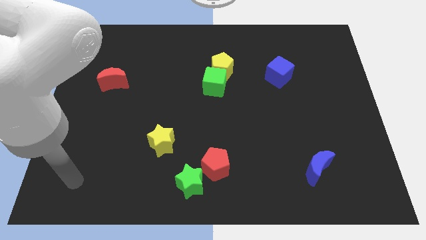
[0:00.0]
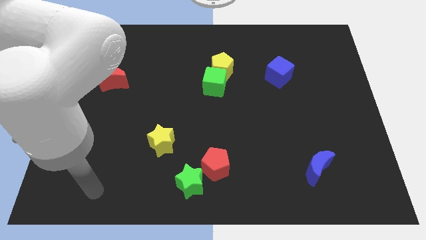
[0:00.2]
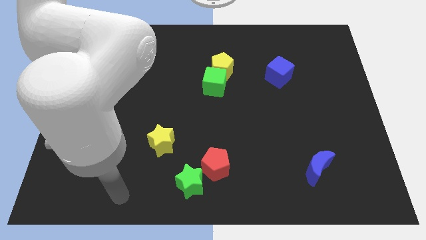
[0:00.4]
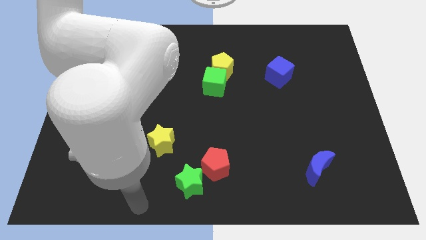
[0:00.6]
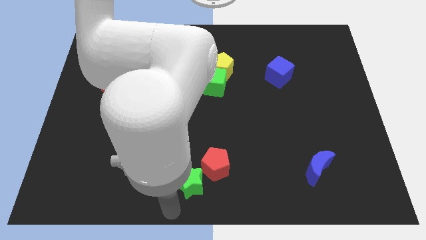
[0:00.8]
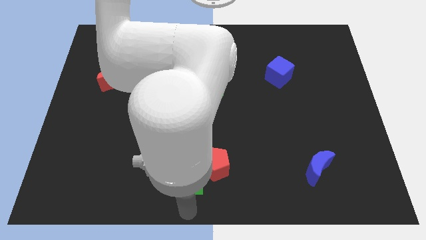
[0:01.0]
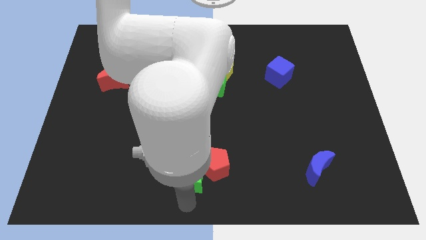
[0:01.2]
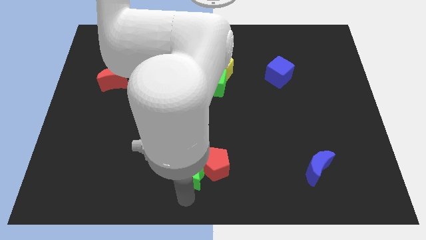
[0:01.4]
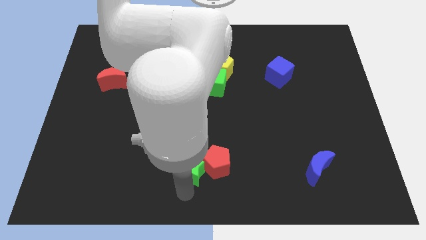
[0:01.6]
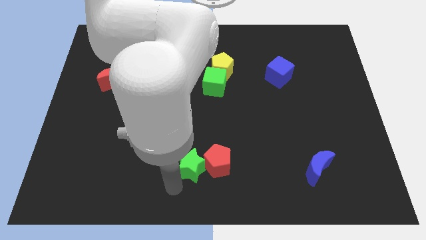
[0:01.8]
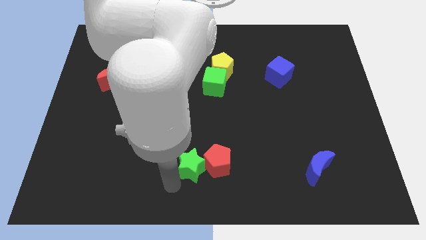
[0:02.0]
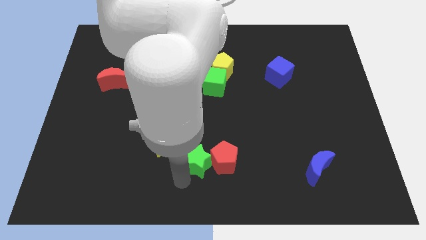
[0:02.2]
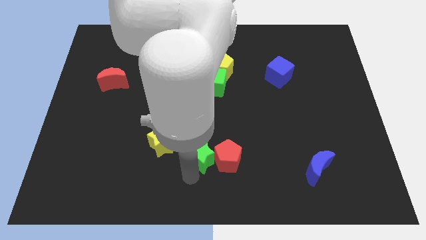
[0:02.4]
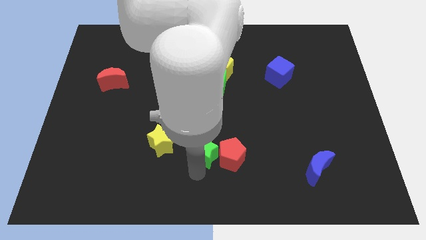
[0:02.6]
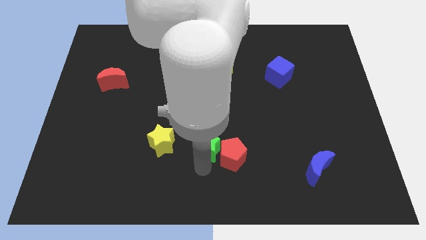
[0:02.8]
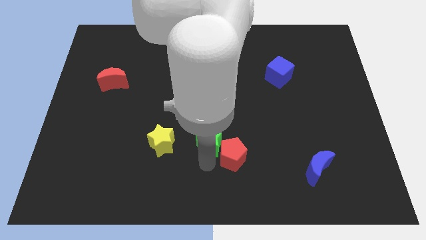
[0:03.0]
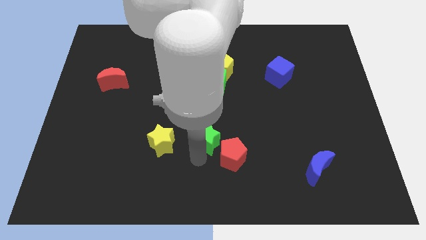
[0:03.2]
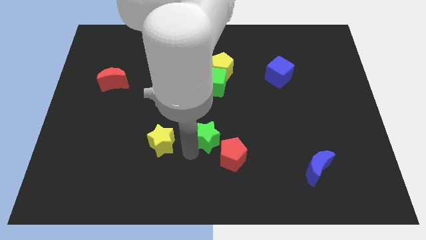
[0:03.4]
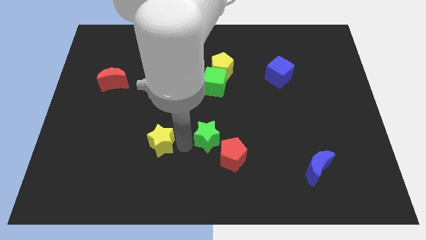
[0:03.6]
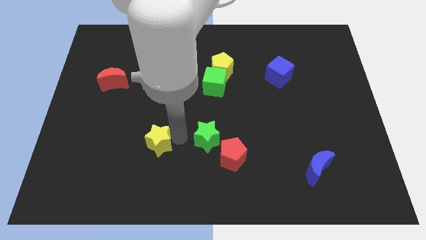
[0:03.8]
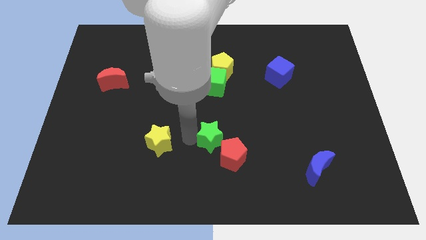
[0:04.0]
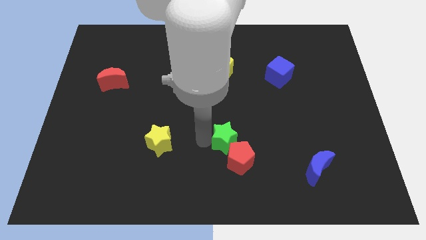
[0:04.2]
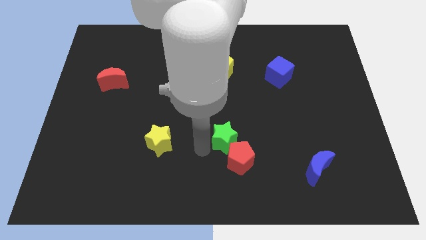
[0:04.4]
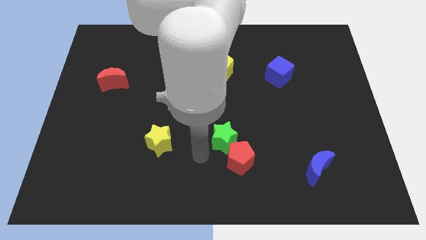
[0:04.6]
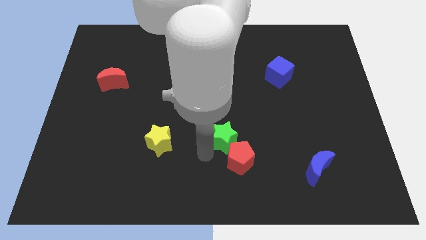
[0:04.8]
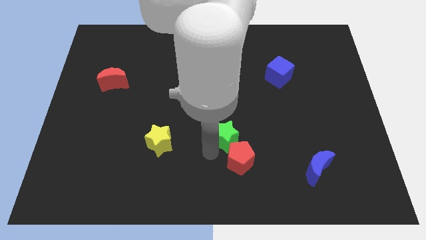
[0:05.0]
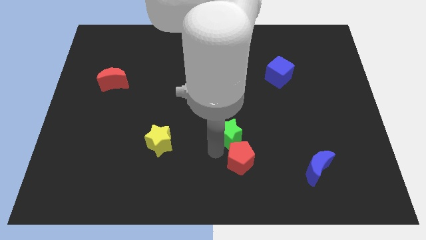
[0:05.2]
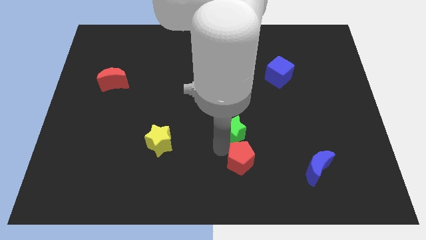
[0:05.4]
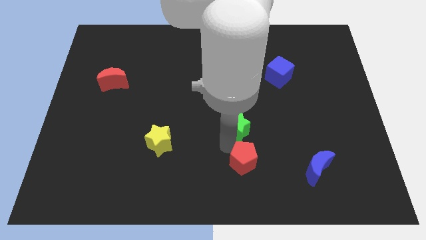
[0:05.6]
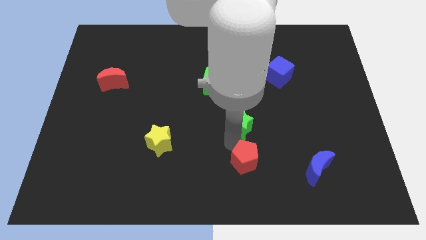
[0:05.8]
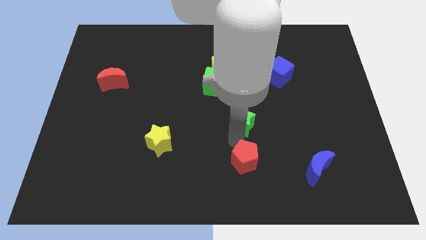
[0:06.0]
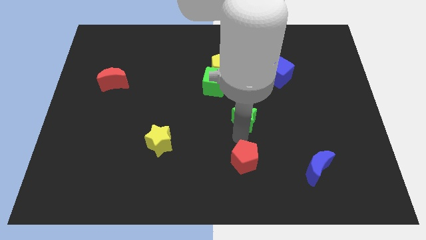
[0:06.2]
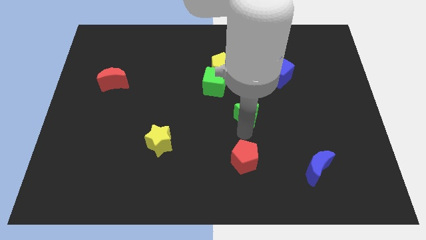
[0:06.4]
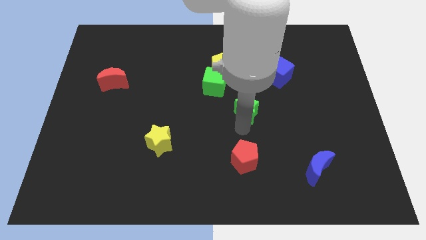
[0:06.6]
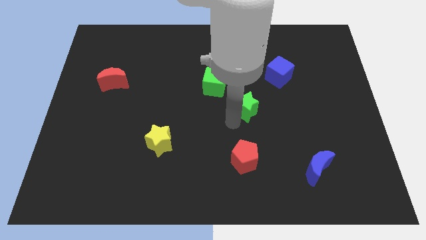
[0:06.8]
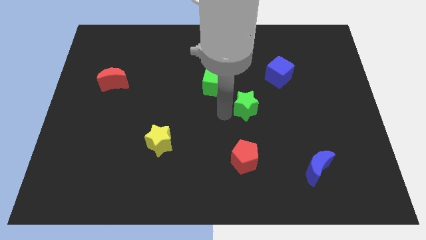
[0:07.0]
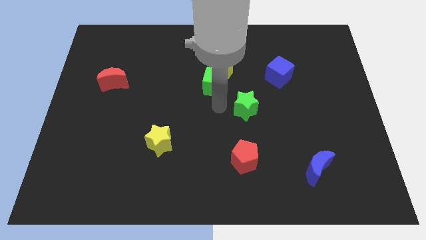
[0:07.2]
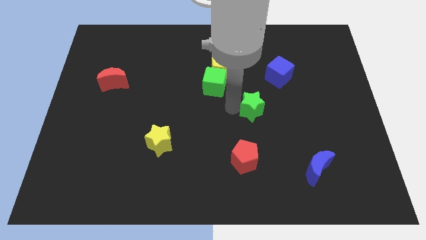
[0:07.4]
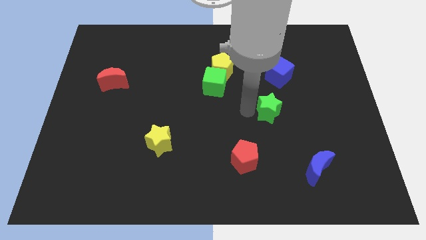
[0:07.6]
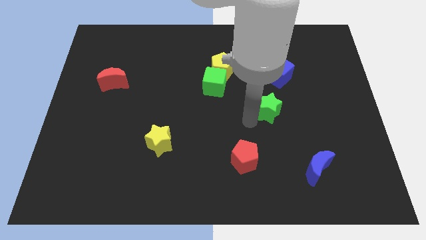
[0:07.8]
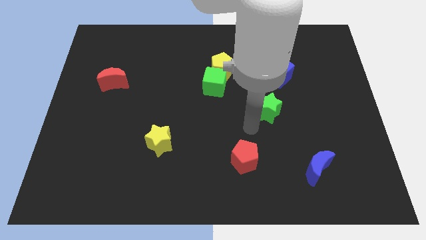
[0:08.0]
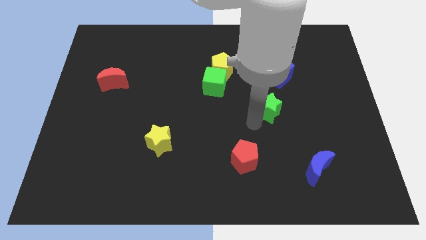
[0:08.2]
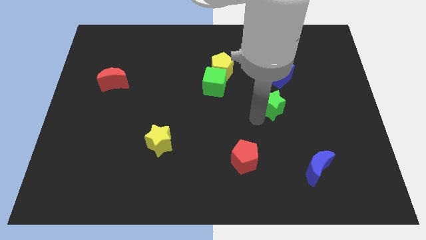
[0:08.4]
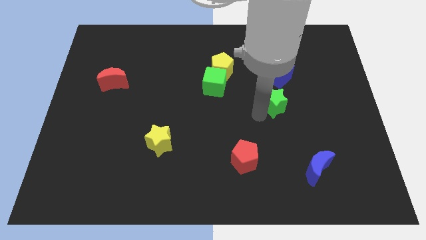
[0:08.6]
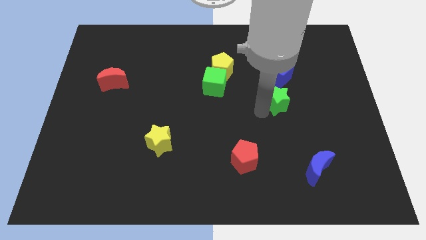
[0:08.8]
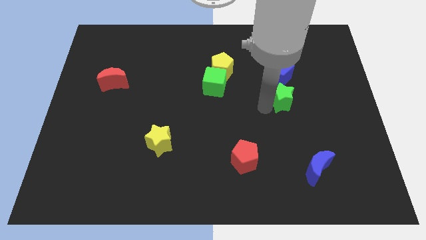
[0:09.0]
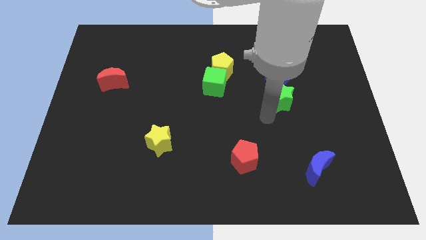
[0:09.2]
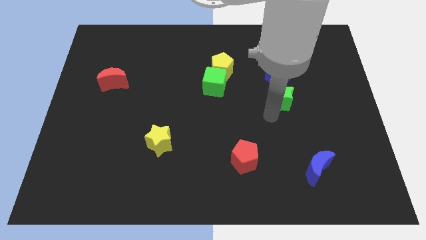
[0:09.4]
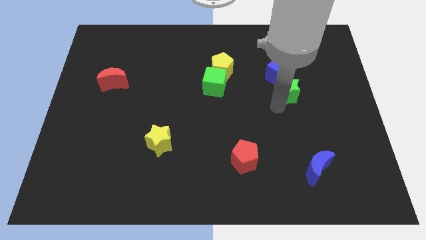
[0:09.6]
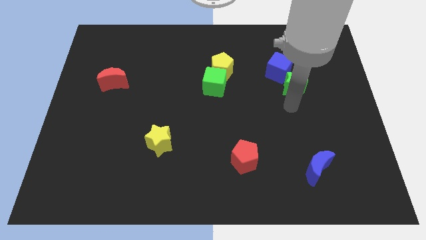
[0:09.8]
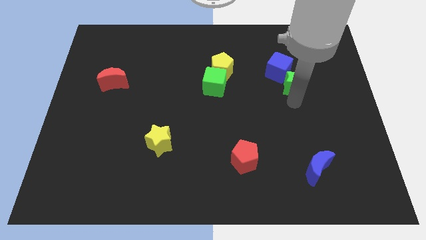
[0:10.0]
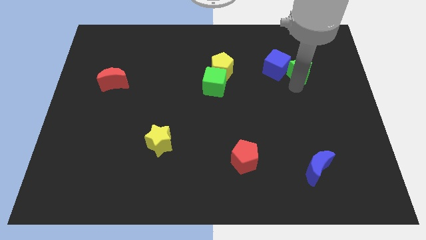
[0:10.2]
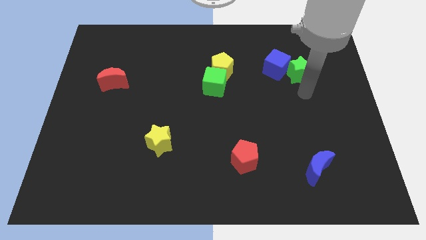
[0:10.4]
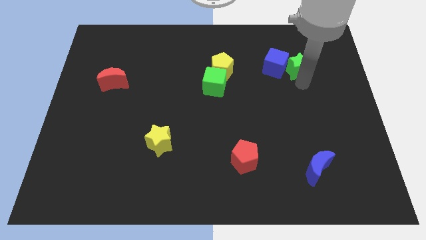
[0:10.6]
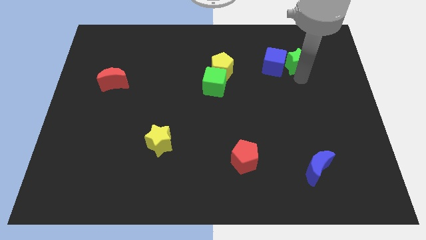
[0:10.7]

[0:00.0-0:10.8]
push the green star diagonally up and to the right of the blue cube

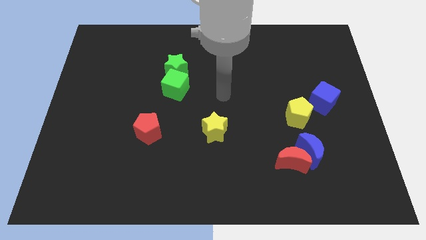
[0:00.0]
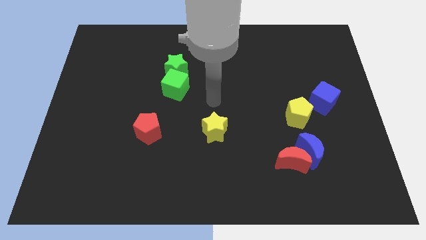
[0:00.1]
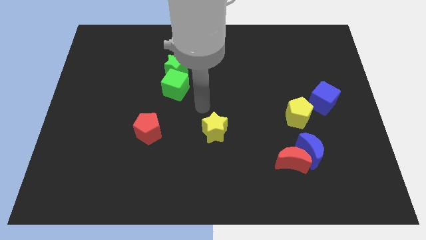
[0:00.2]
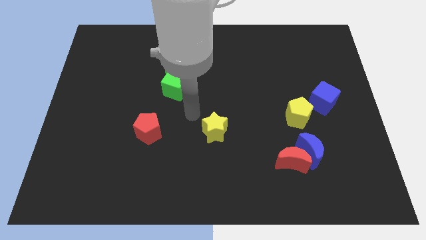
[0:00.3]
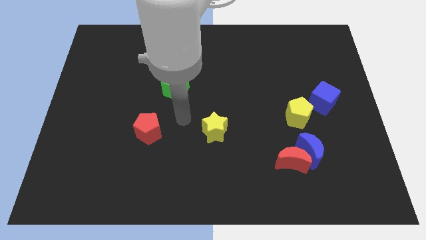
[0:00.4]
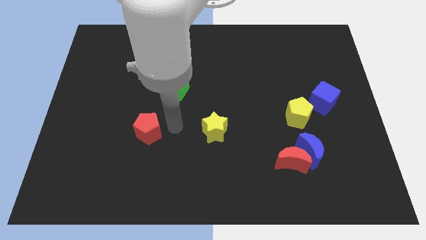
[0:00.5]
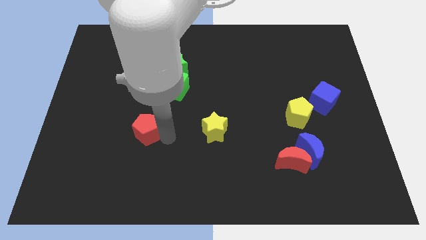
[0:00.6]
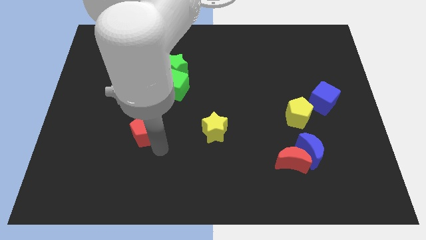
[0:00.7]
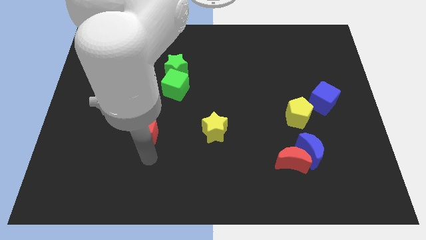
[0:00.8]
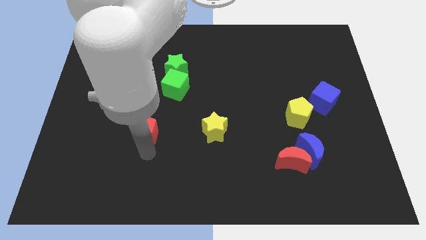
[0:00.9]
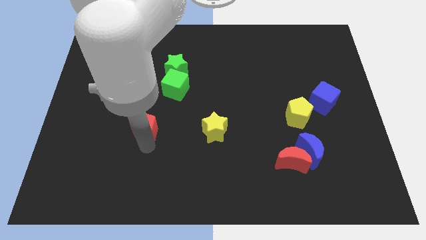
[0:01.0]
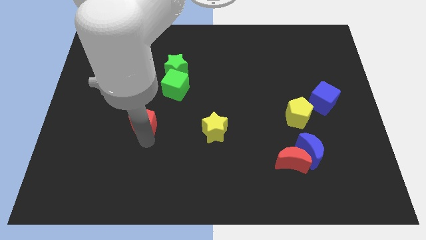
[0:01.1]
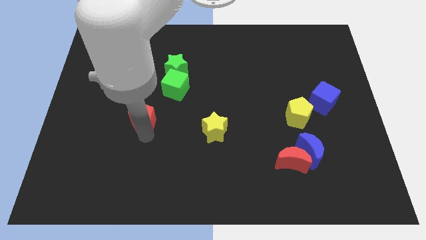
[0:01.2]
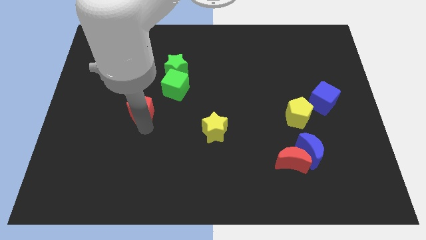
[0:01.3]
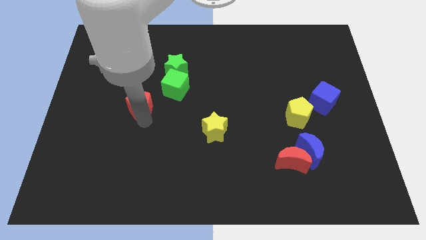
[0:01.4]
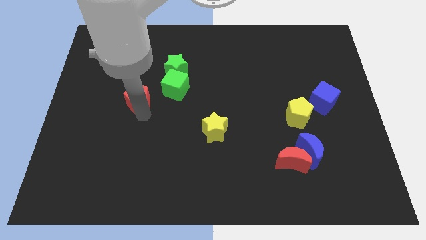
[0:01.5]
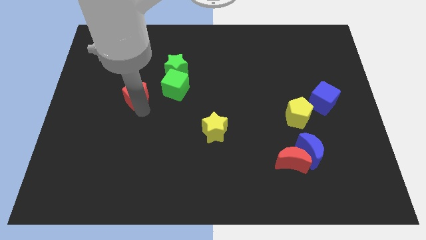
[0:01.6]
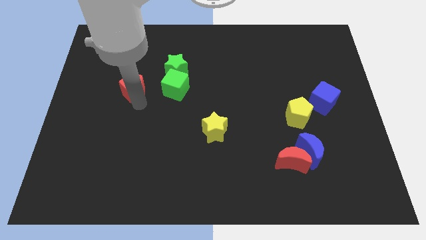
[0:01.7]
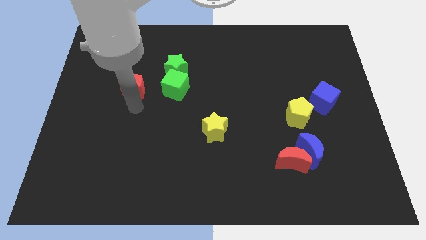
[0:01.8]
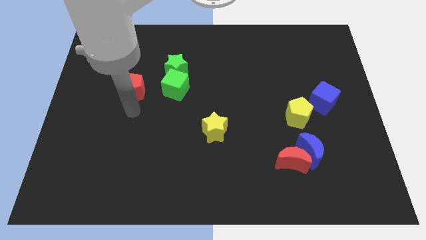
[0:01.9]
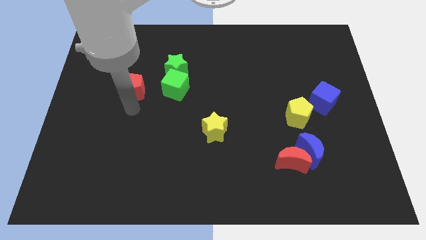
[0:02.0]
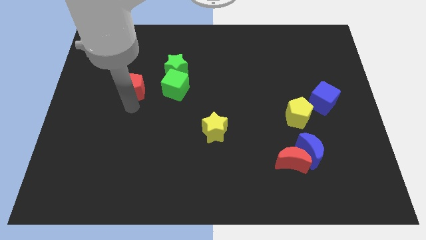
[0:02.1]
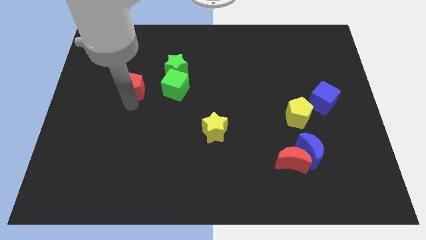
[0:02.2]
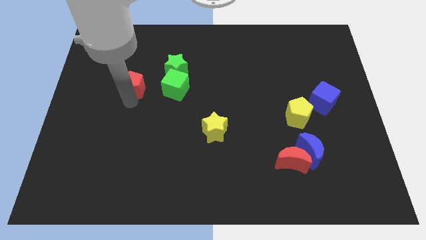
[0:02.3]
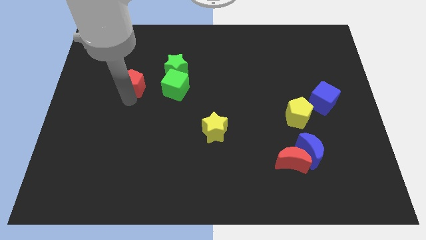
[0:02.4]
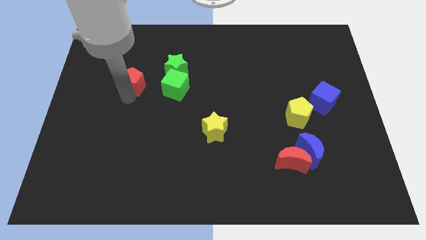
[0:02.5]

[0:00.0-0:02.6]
put the red pentagon to the left of the green star
